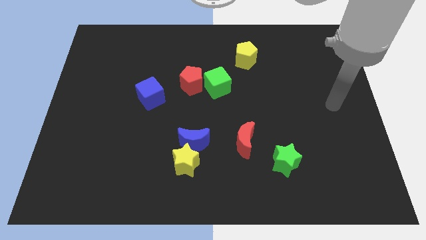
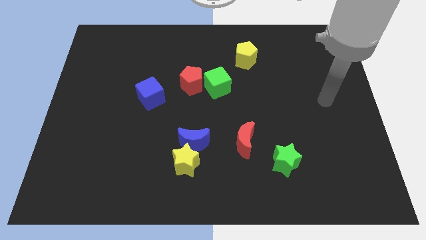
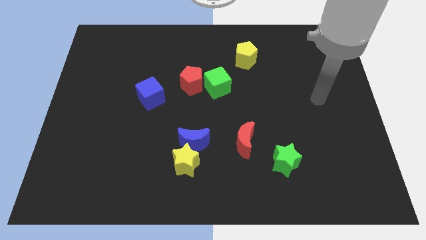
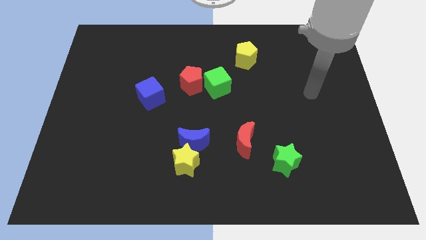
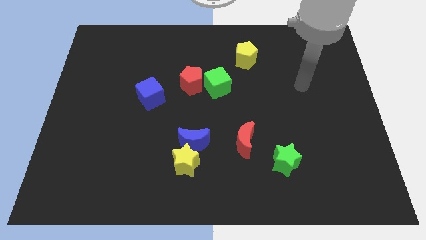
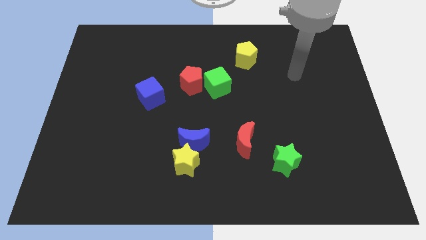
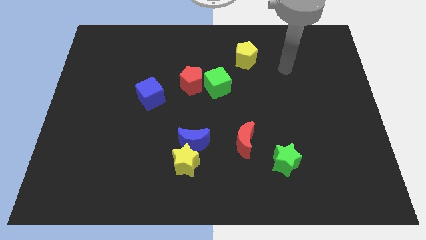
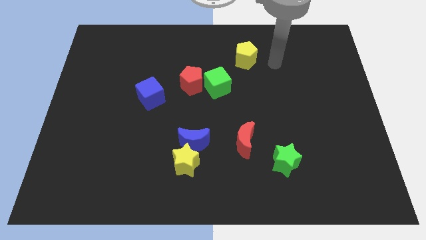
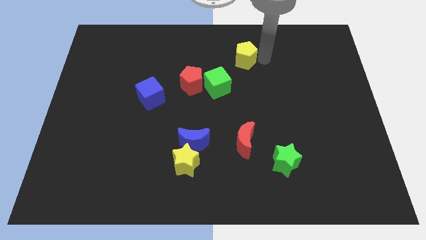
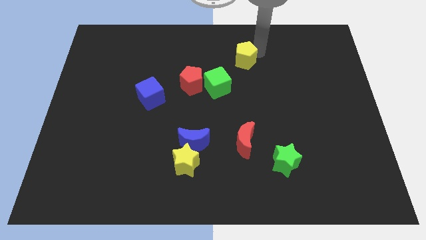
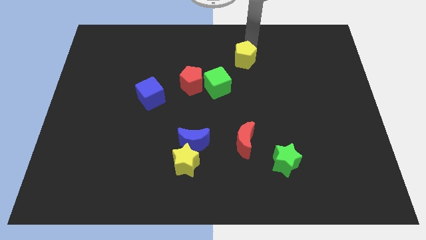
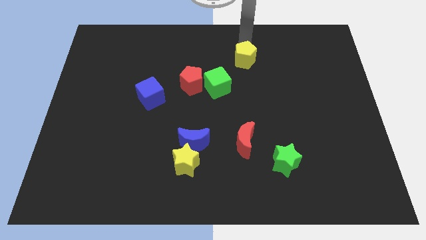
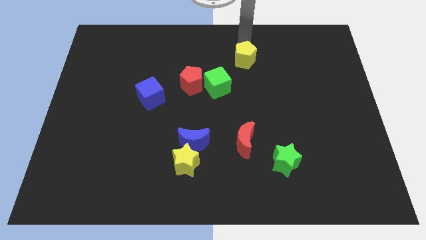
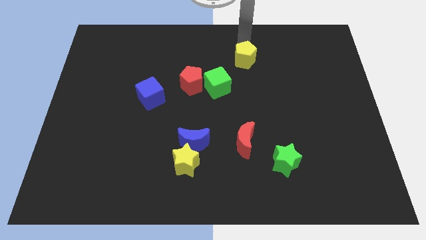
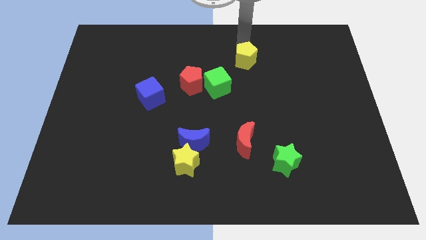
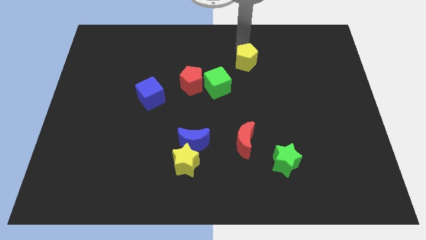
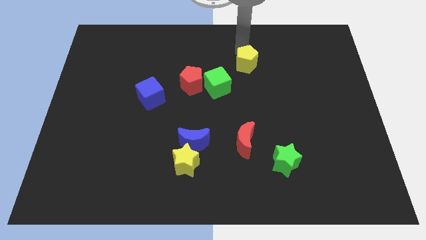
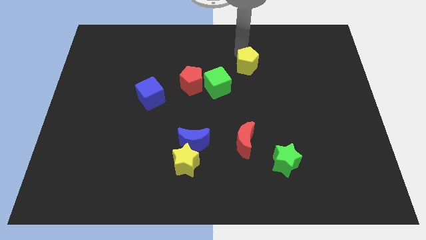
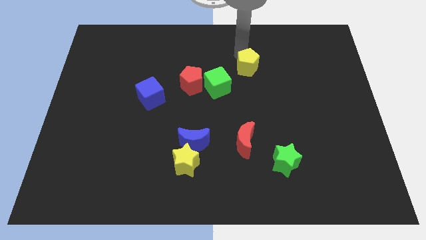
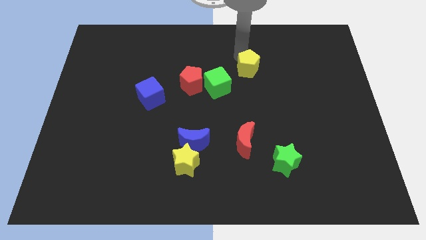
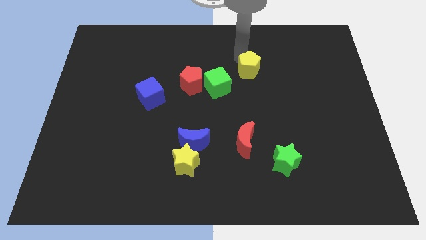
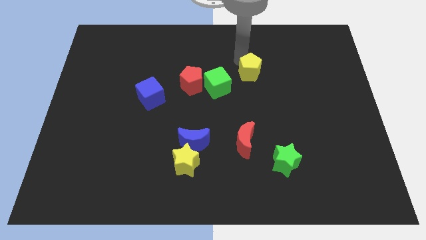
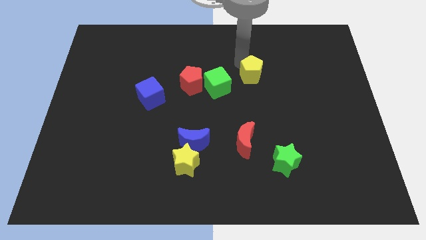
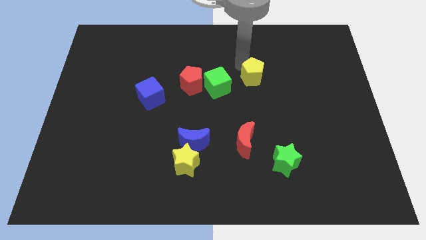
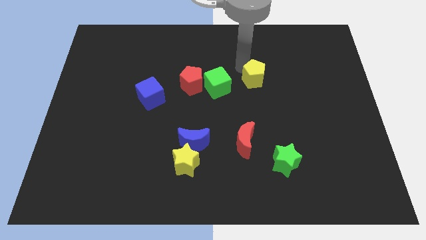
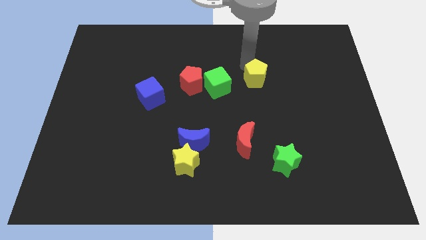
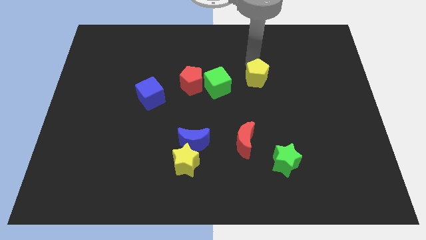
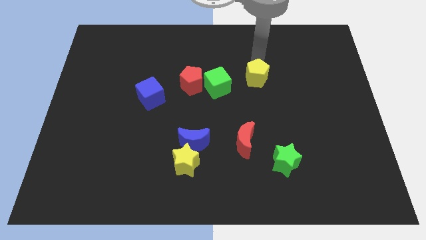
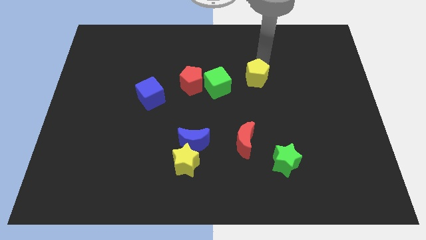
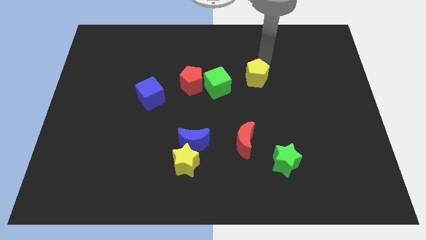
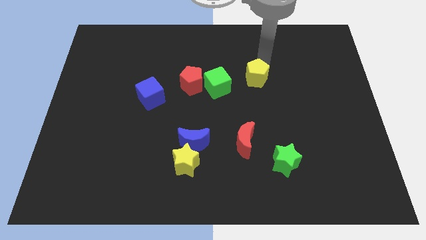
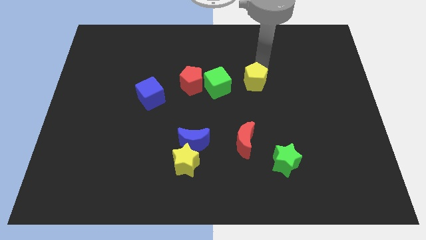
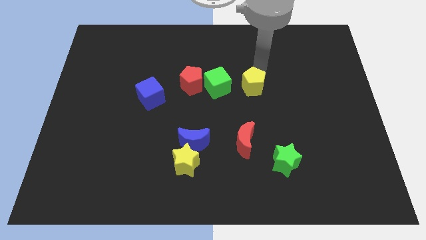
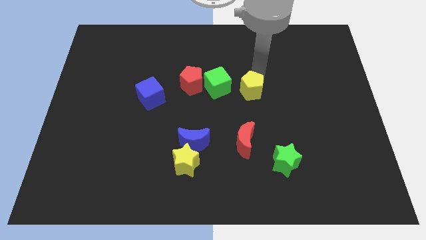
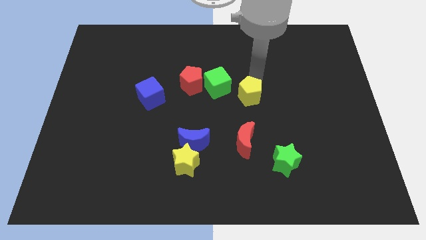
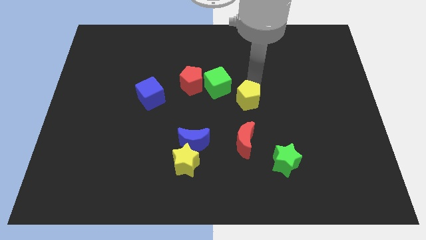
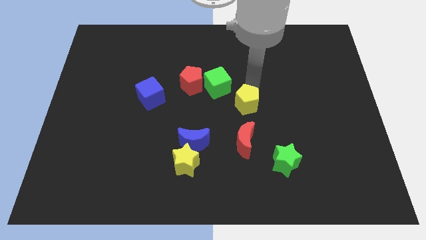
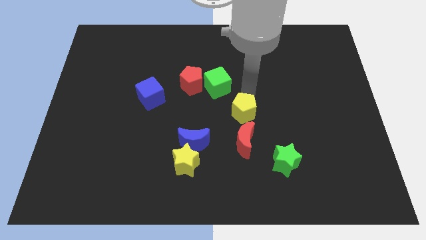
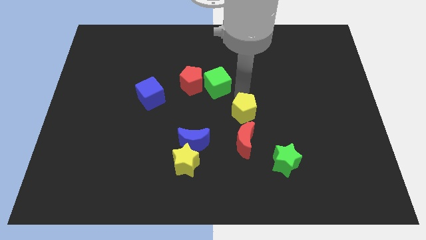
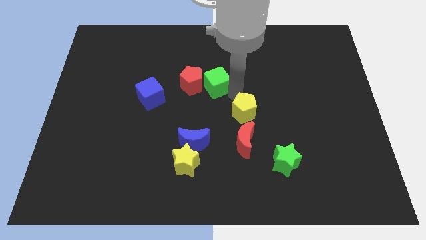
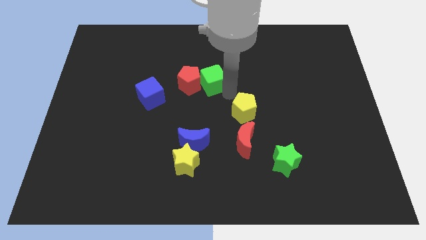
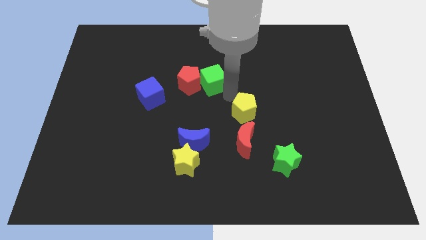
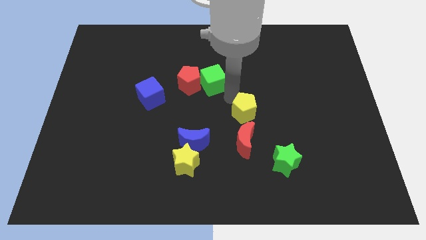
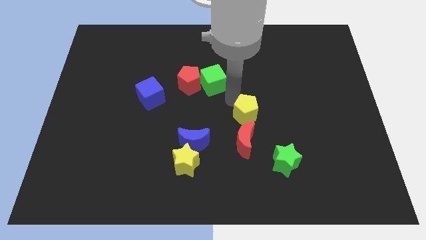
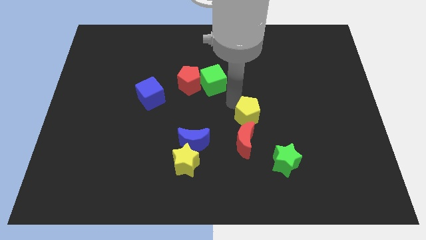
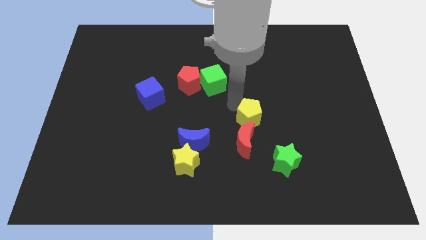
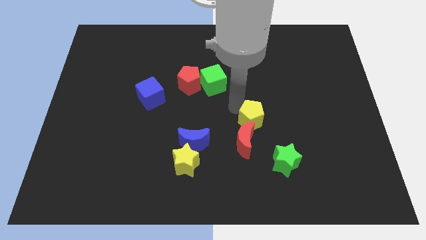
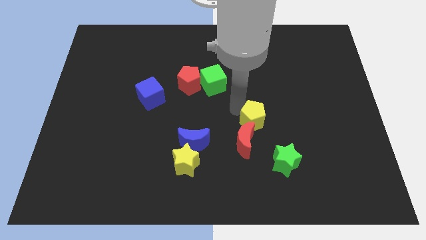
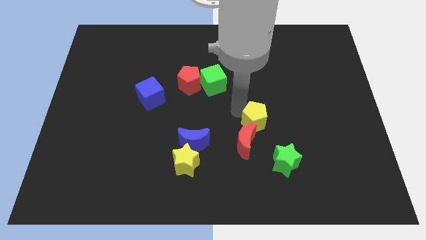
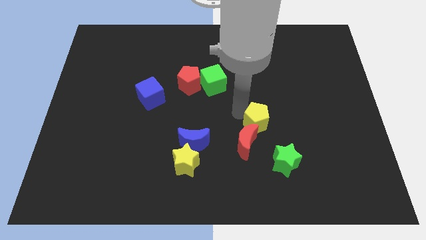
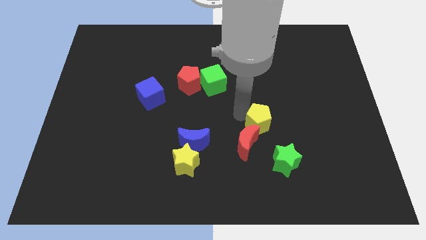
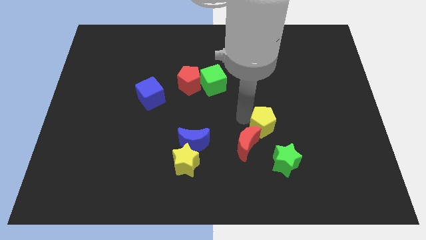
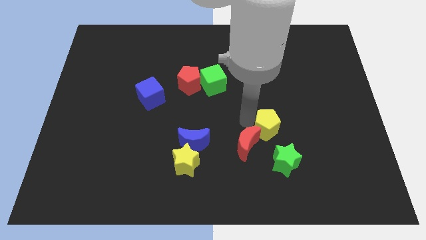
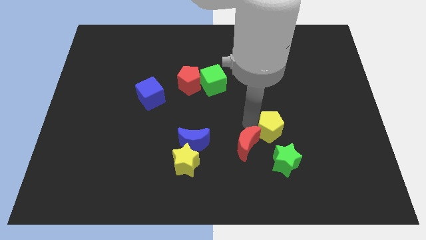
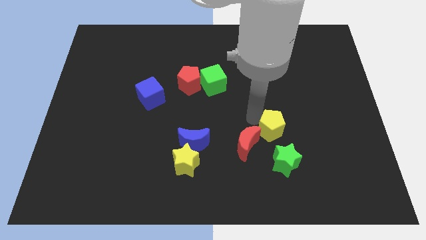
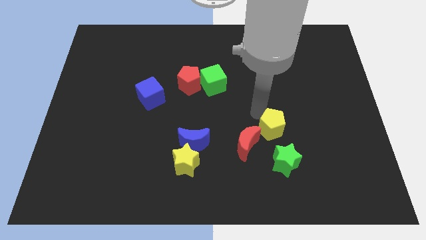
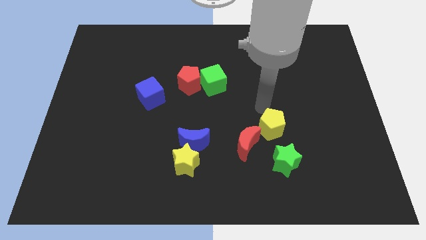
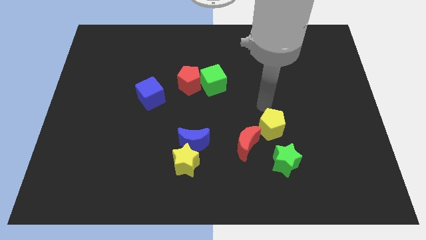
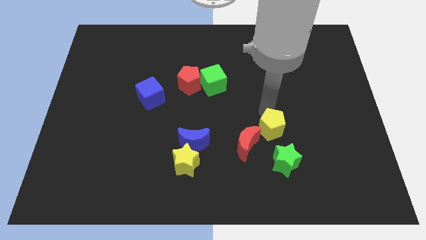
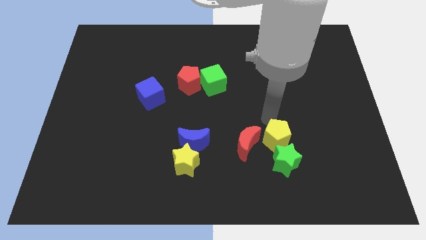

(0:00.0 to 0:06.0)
slide the yellow pentagon towards the green star

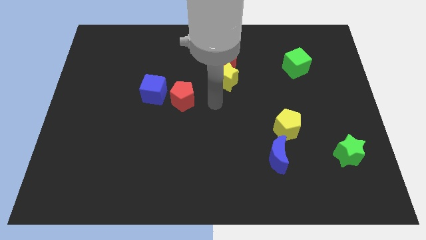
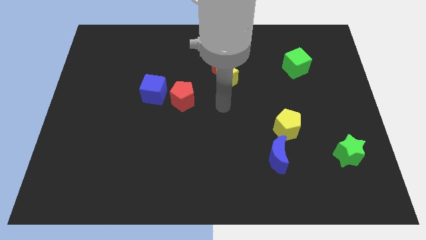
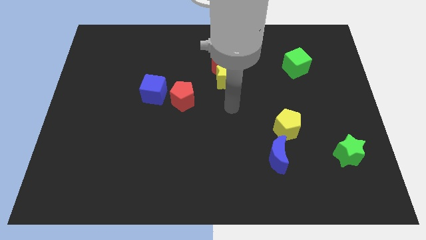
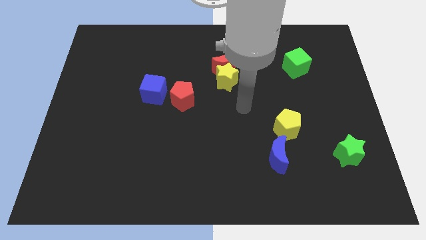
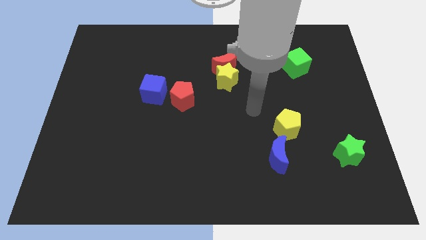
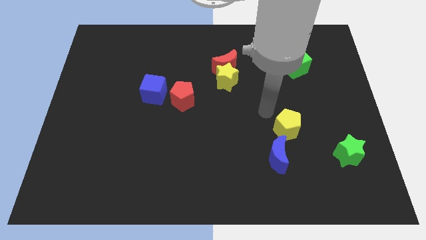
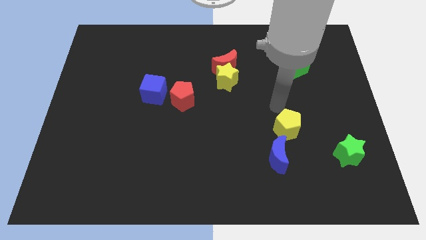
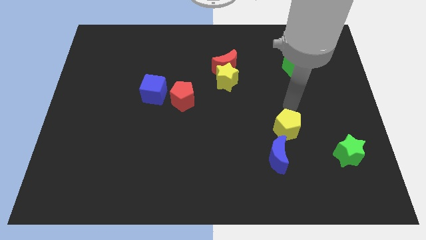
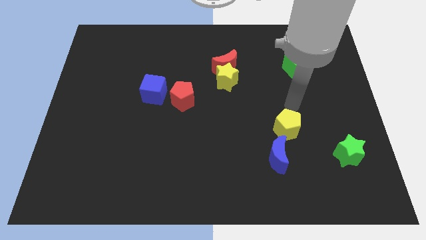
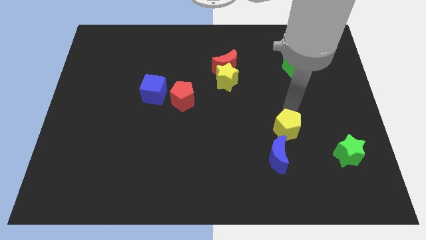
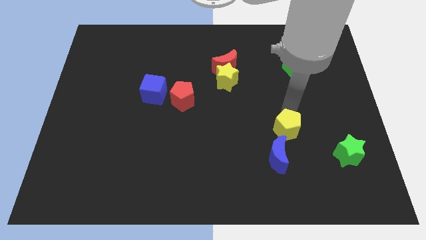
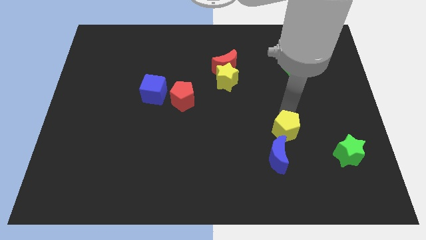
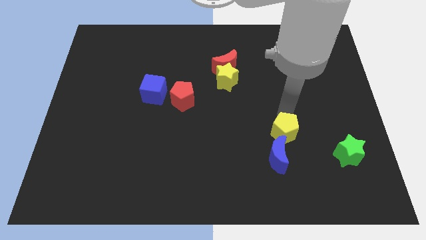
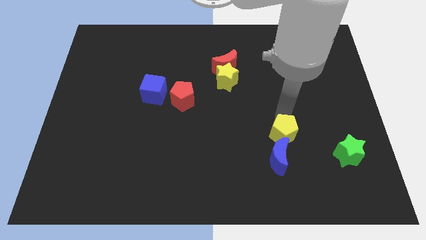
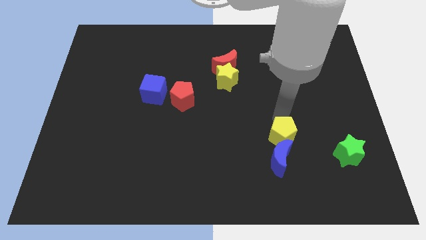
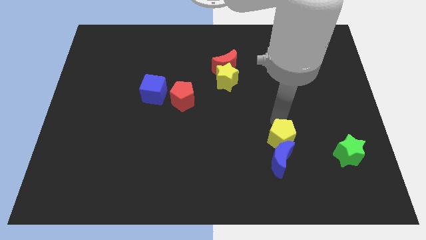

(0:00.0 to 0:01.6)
move the yellow pentagon to the blue moon
